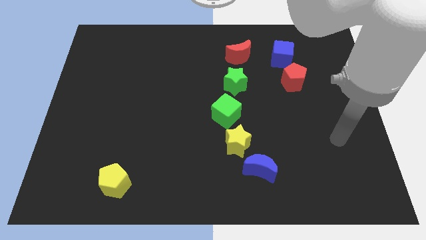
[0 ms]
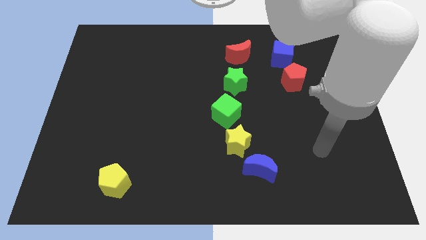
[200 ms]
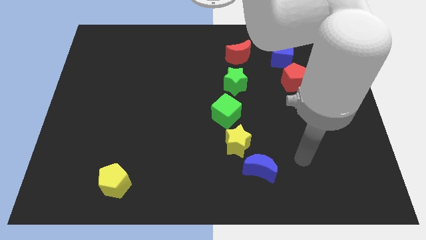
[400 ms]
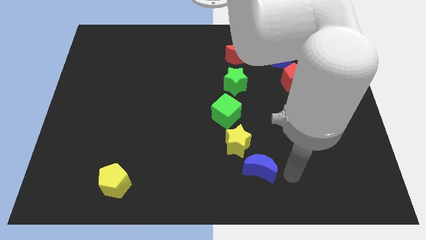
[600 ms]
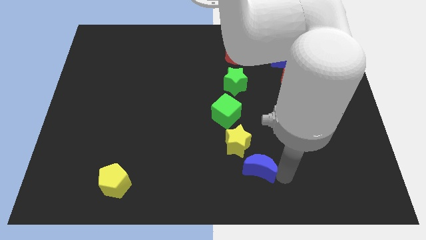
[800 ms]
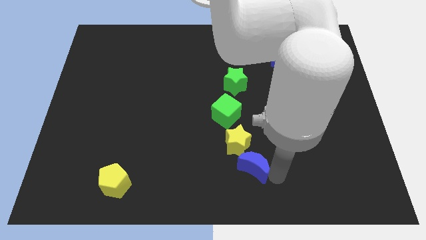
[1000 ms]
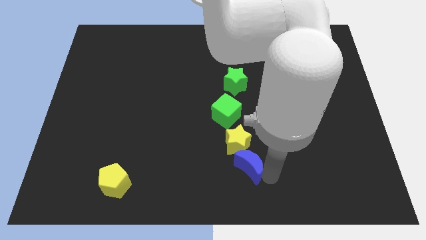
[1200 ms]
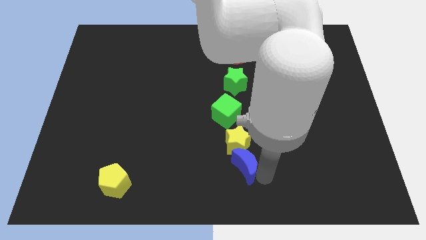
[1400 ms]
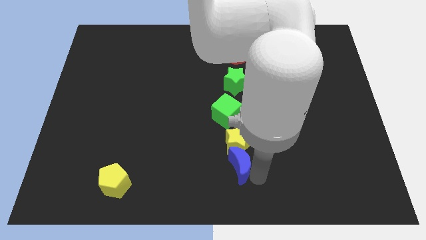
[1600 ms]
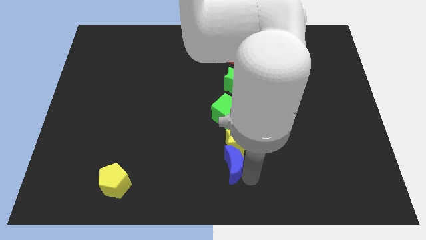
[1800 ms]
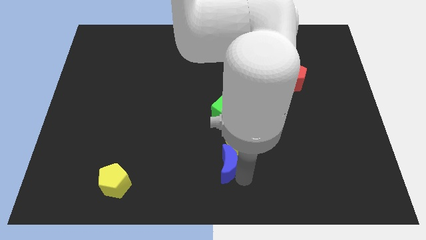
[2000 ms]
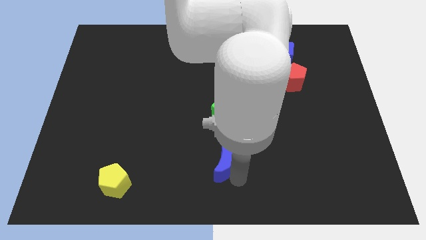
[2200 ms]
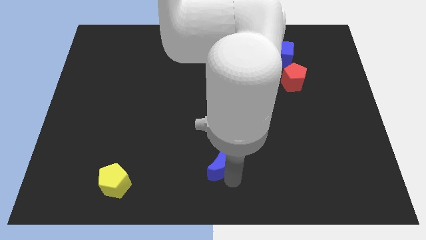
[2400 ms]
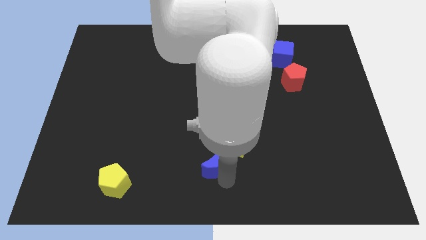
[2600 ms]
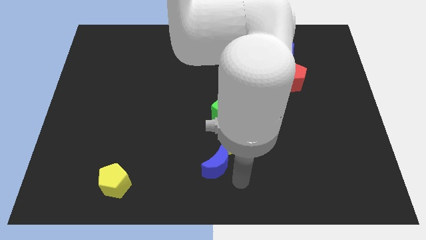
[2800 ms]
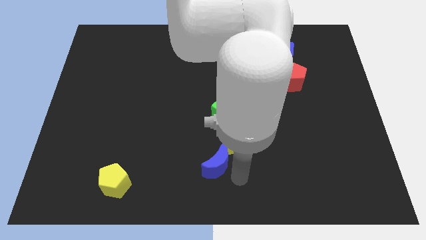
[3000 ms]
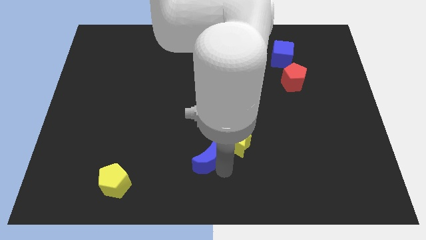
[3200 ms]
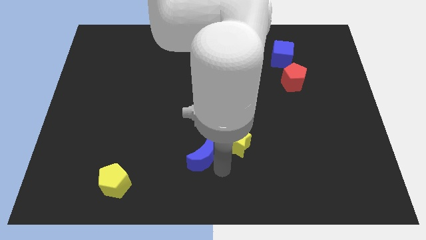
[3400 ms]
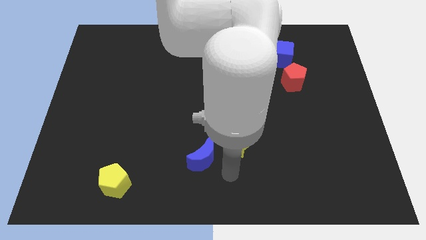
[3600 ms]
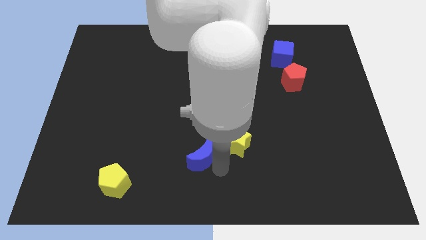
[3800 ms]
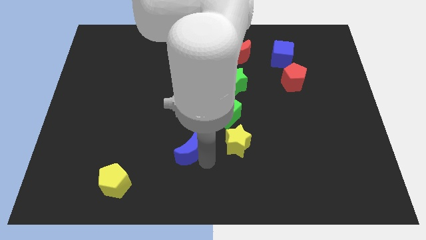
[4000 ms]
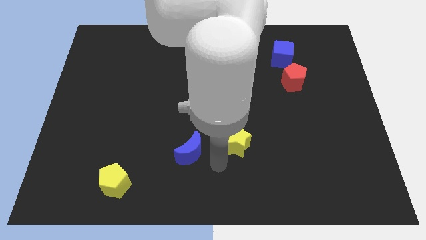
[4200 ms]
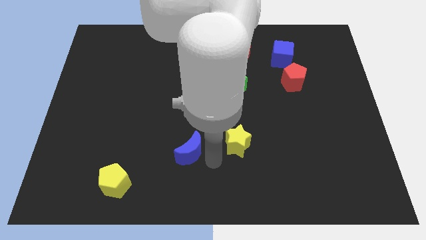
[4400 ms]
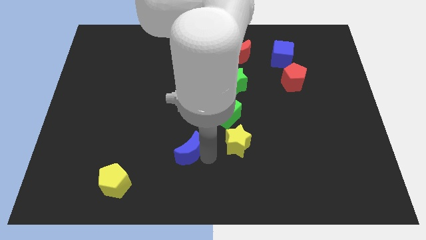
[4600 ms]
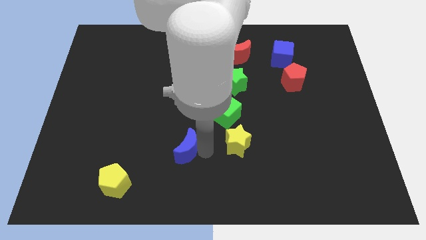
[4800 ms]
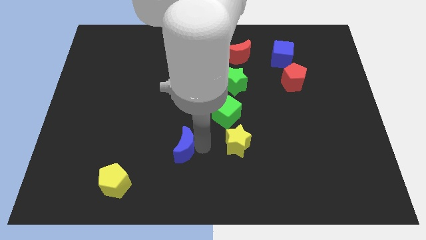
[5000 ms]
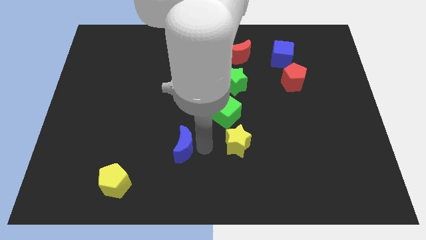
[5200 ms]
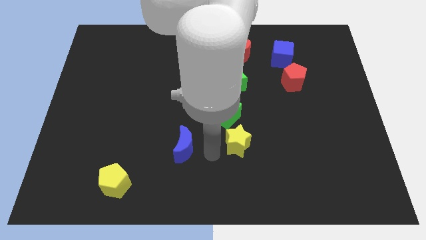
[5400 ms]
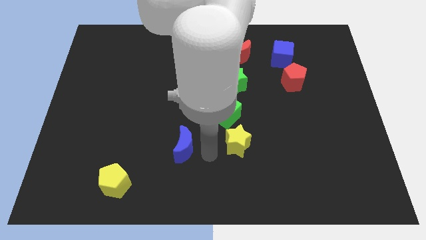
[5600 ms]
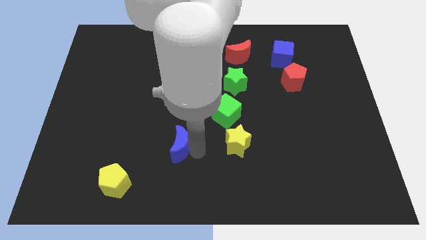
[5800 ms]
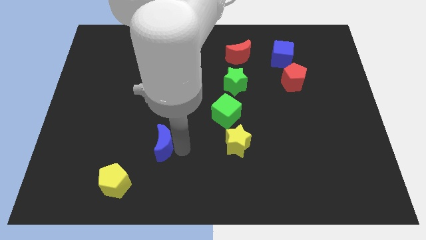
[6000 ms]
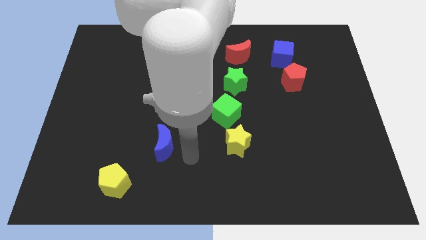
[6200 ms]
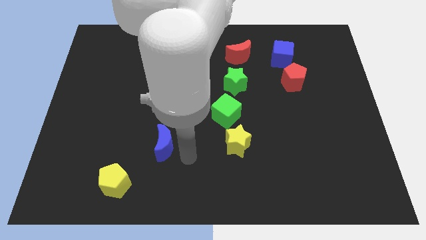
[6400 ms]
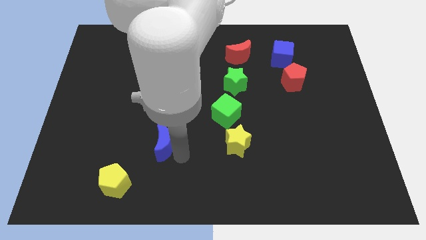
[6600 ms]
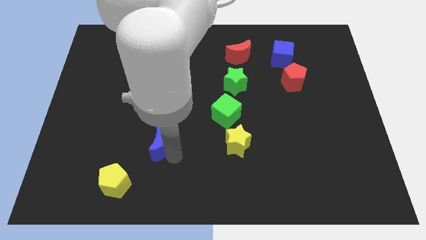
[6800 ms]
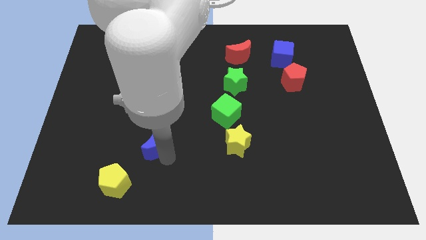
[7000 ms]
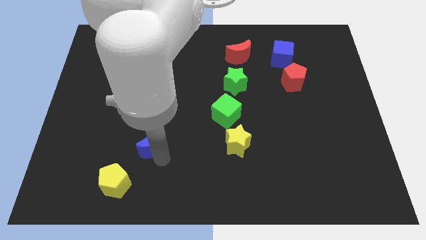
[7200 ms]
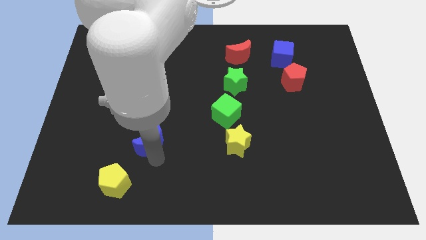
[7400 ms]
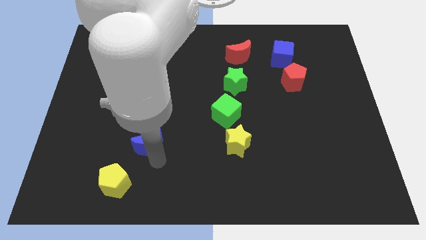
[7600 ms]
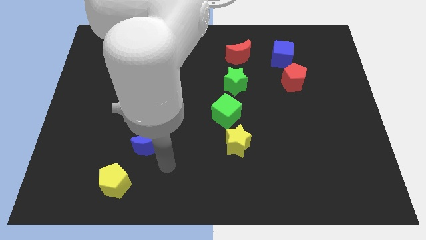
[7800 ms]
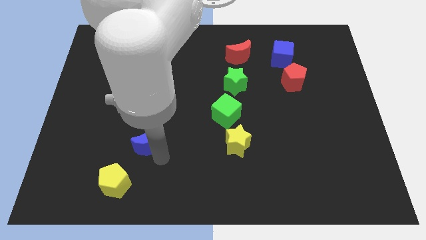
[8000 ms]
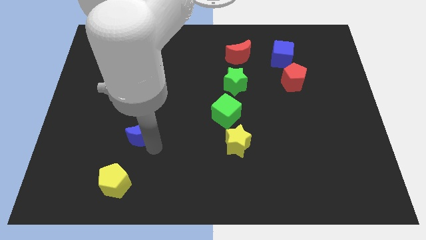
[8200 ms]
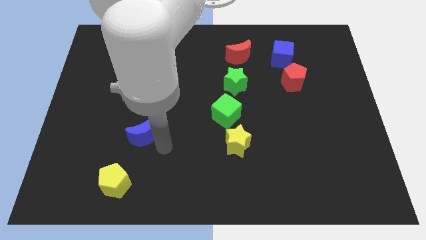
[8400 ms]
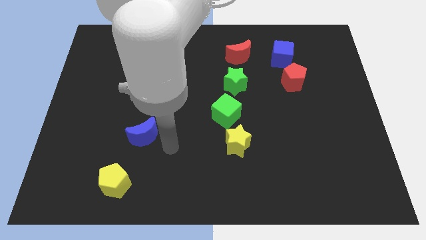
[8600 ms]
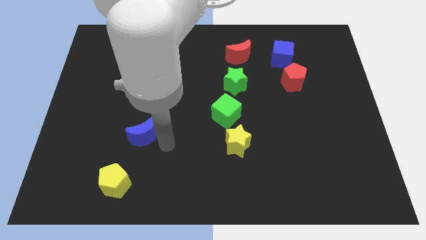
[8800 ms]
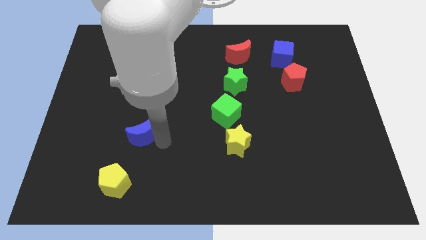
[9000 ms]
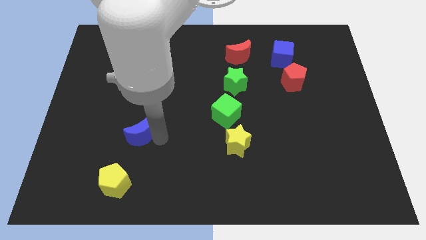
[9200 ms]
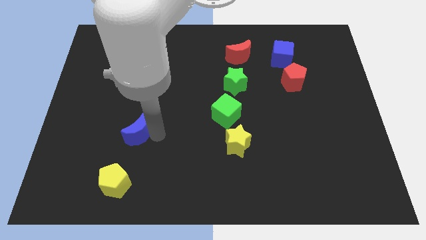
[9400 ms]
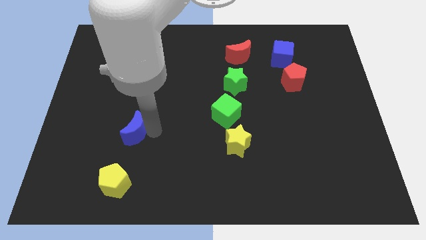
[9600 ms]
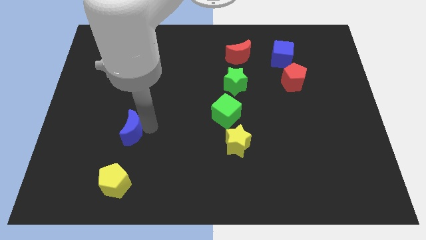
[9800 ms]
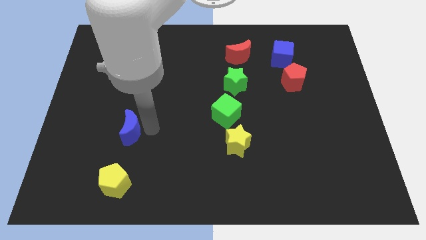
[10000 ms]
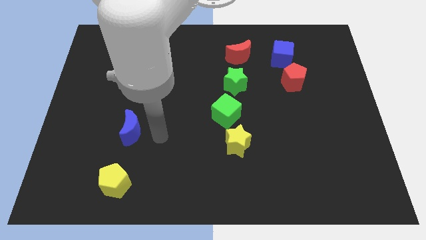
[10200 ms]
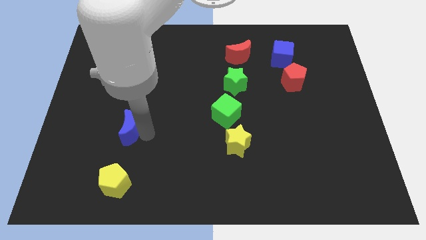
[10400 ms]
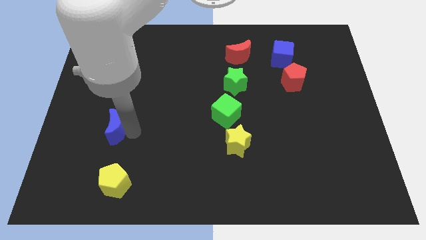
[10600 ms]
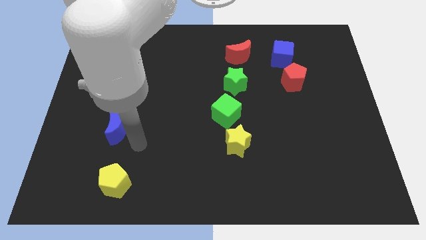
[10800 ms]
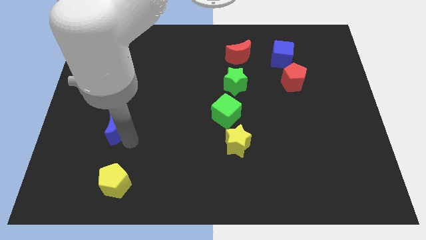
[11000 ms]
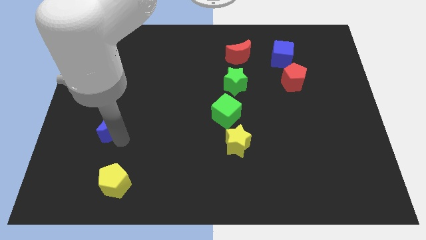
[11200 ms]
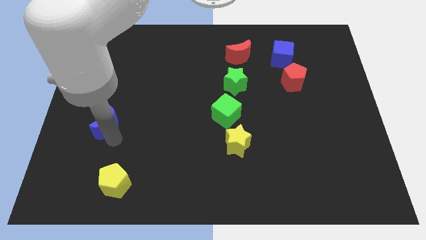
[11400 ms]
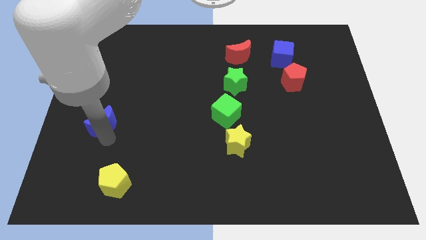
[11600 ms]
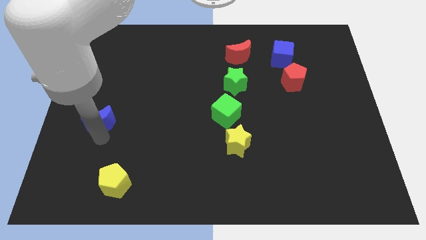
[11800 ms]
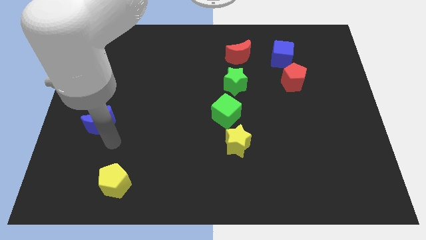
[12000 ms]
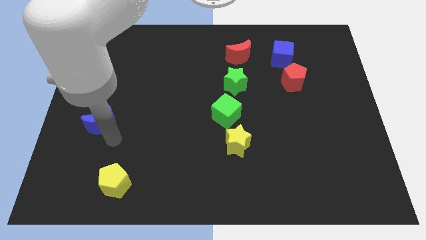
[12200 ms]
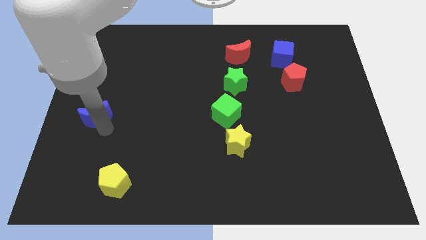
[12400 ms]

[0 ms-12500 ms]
slide the blue moon to the left side of the board

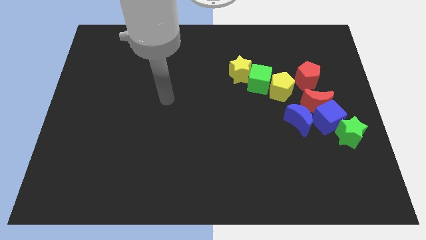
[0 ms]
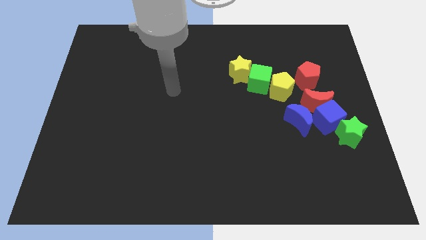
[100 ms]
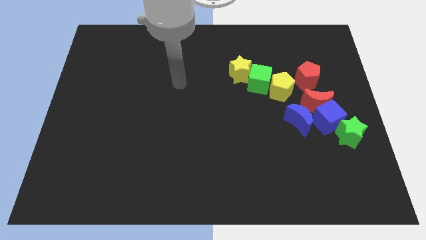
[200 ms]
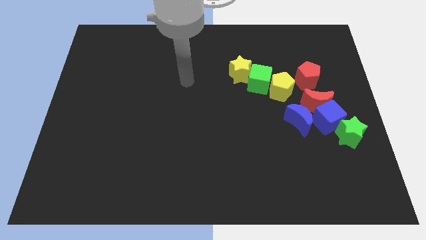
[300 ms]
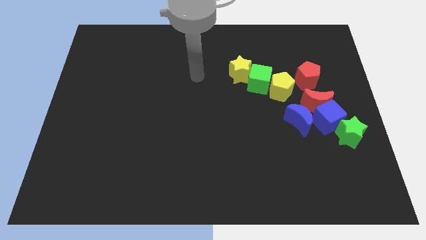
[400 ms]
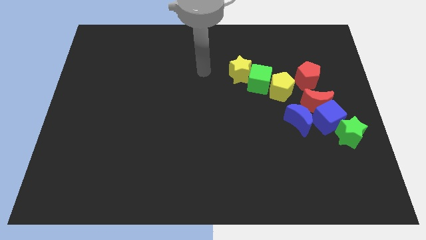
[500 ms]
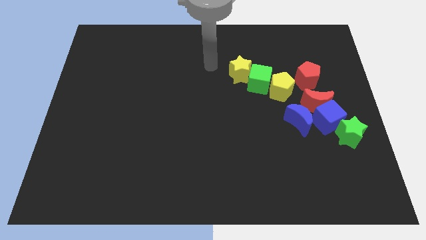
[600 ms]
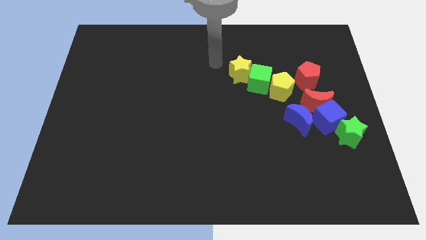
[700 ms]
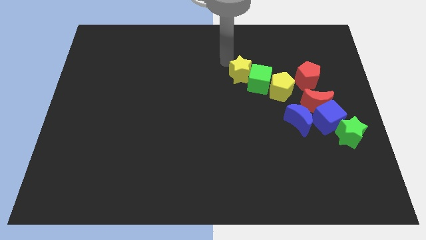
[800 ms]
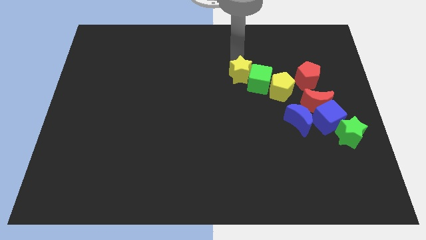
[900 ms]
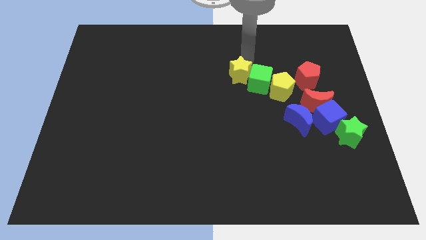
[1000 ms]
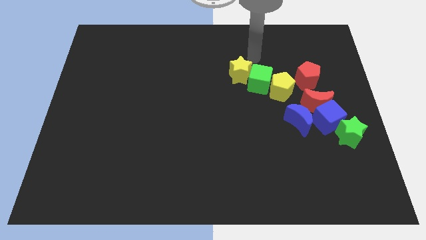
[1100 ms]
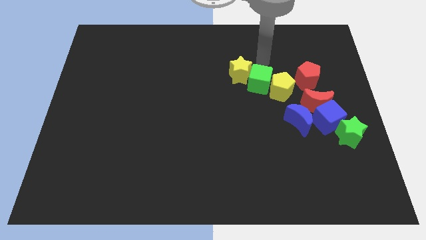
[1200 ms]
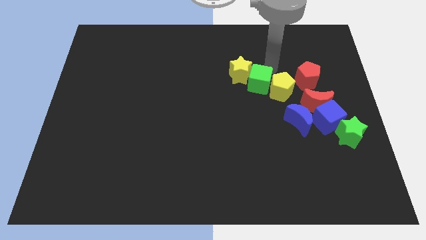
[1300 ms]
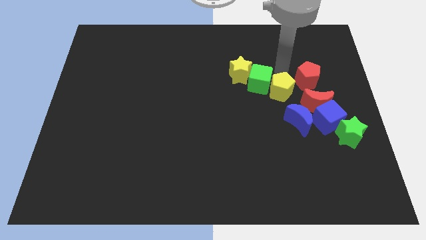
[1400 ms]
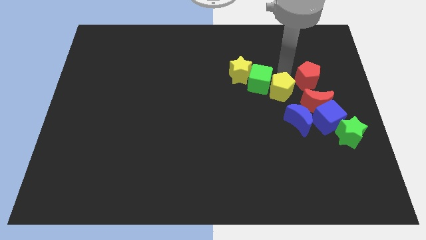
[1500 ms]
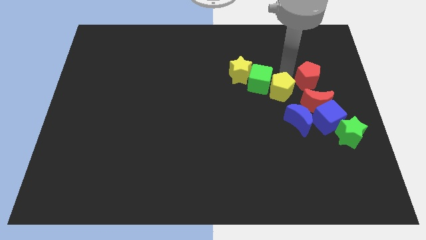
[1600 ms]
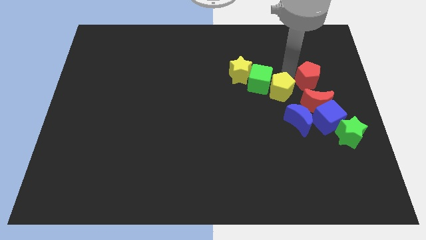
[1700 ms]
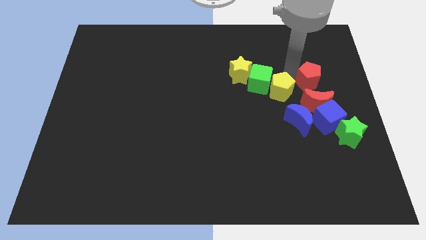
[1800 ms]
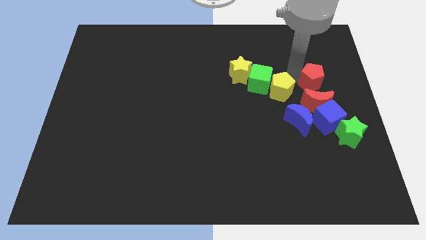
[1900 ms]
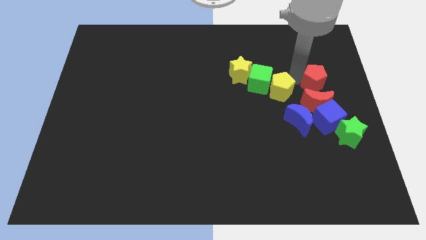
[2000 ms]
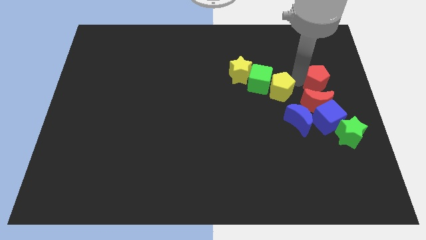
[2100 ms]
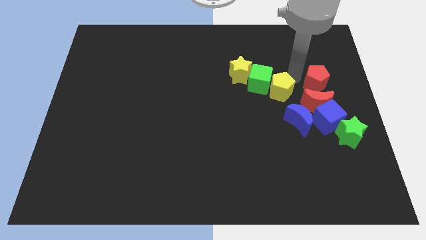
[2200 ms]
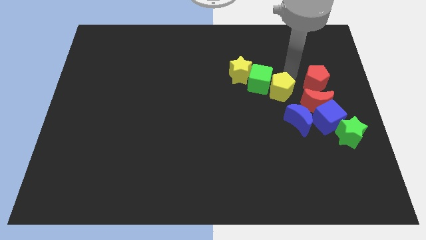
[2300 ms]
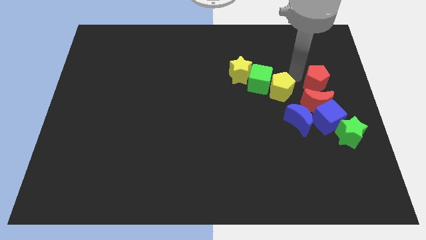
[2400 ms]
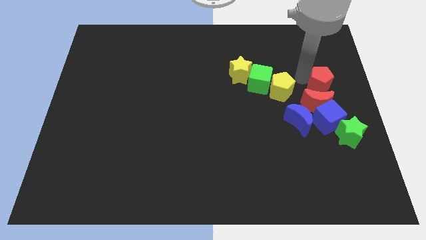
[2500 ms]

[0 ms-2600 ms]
push the red pentagon to the right side
